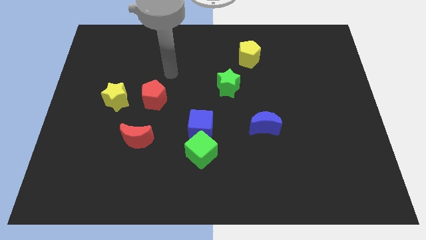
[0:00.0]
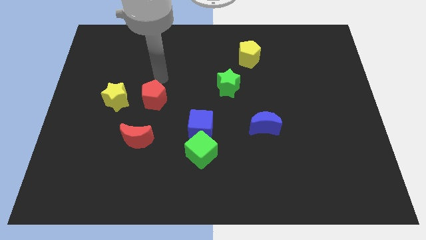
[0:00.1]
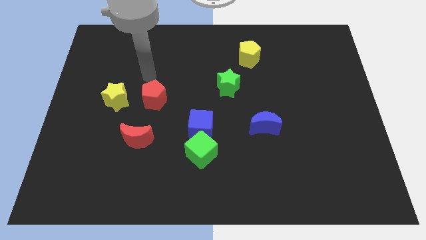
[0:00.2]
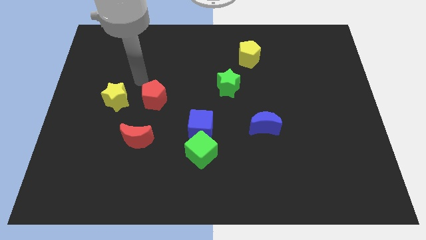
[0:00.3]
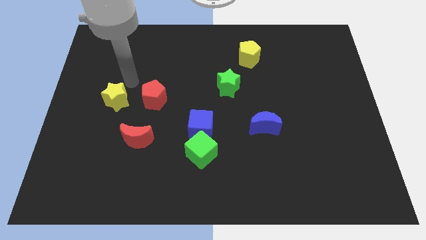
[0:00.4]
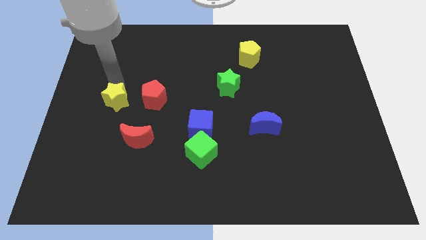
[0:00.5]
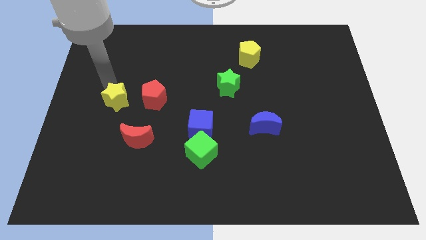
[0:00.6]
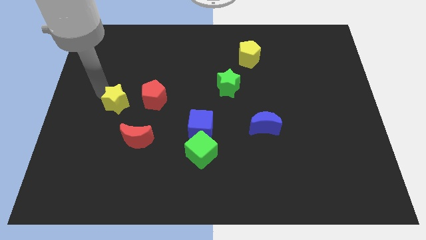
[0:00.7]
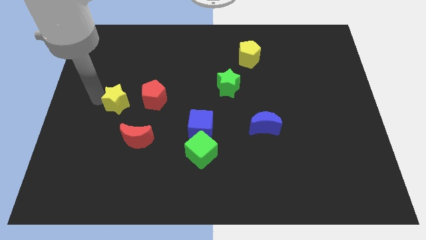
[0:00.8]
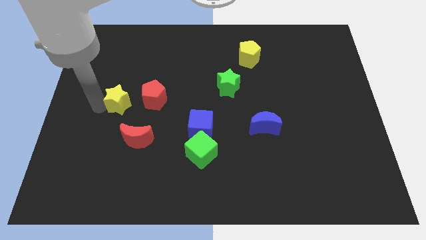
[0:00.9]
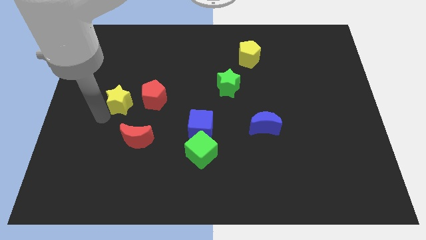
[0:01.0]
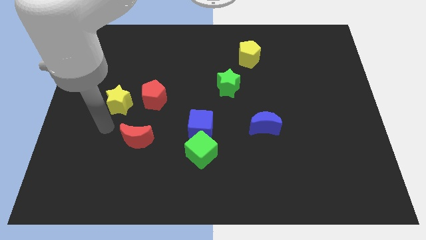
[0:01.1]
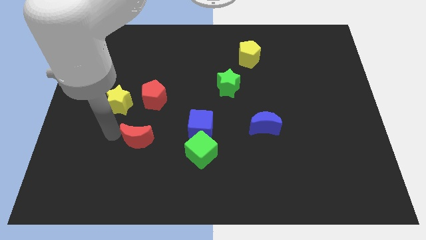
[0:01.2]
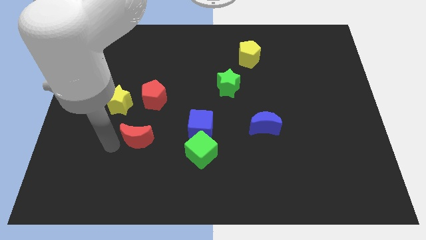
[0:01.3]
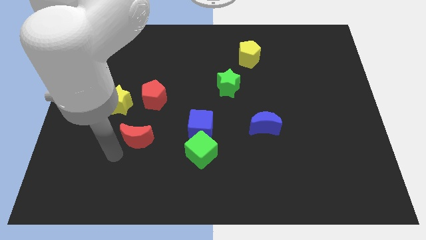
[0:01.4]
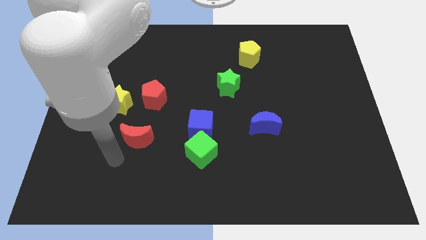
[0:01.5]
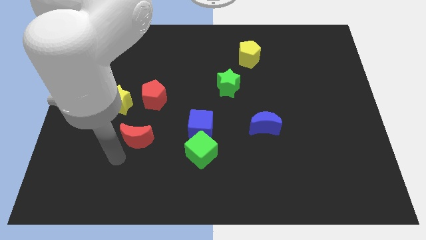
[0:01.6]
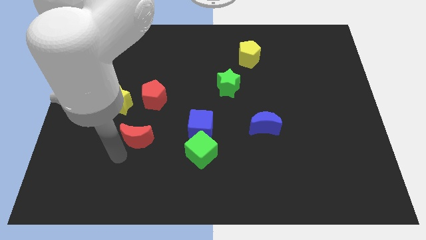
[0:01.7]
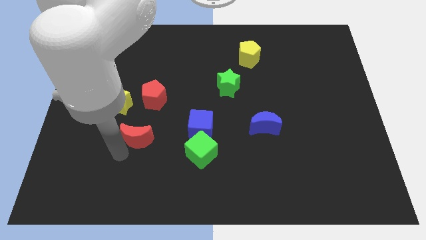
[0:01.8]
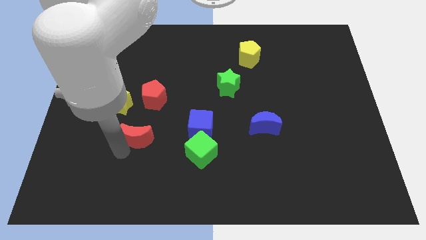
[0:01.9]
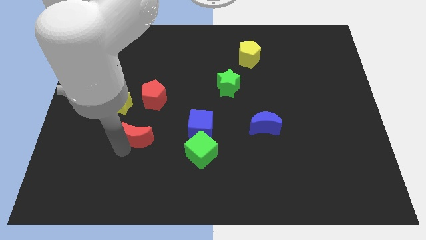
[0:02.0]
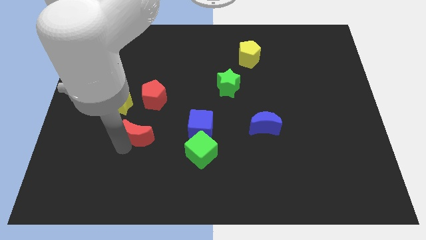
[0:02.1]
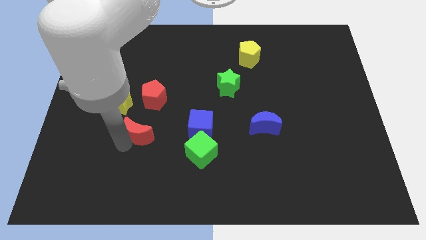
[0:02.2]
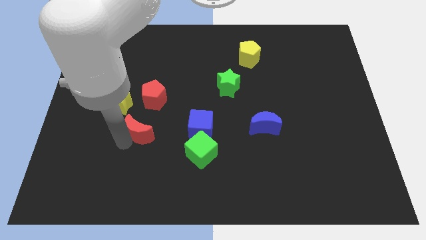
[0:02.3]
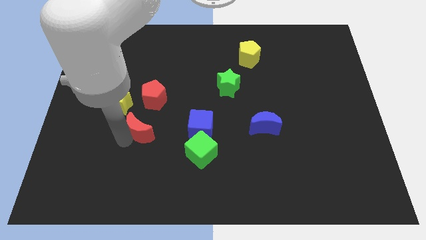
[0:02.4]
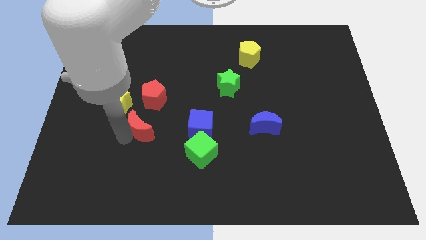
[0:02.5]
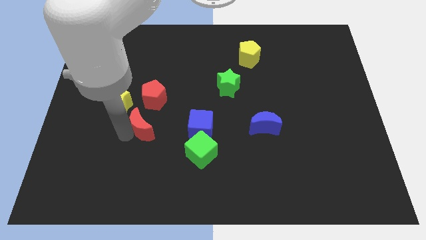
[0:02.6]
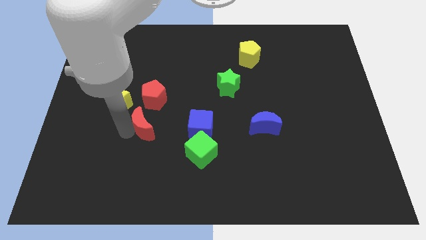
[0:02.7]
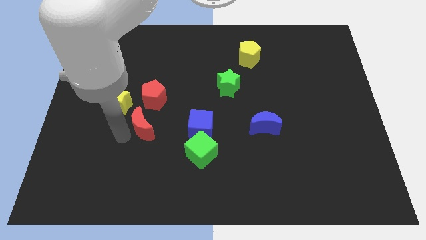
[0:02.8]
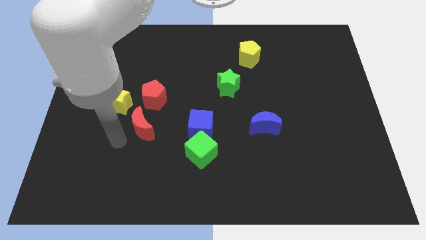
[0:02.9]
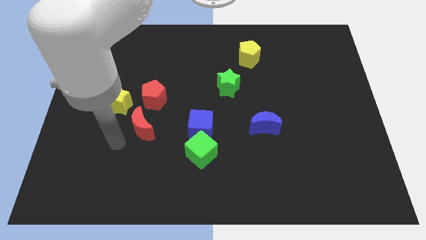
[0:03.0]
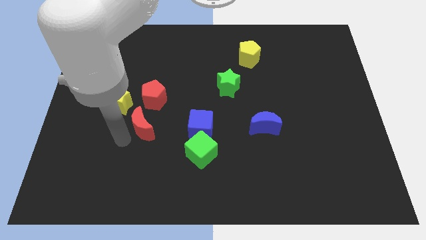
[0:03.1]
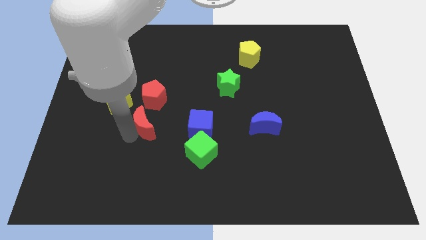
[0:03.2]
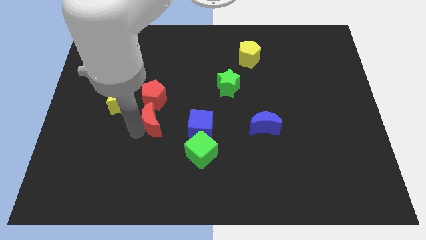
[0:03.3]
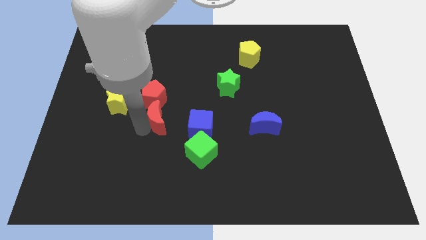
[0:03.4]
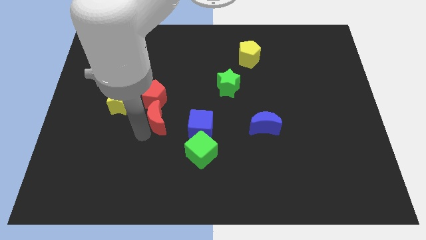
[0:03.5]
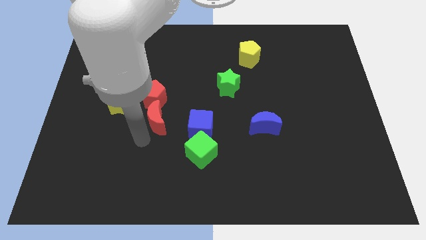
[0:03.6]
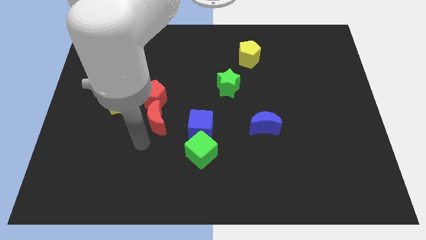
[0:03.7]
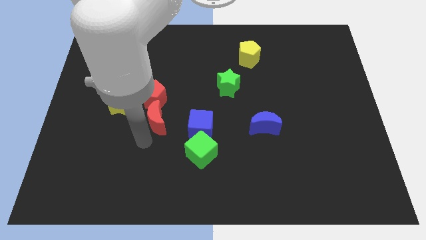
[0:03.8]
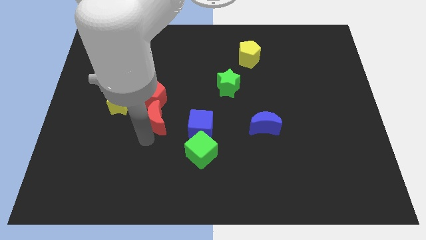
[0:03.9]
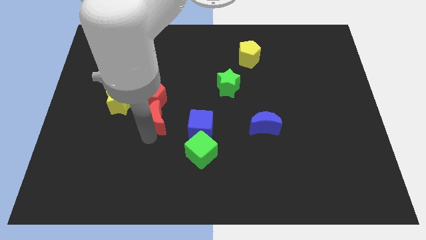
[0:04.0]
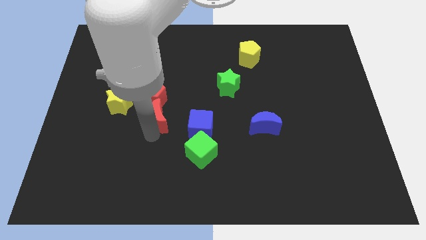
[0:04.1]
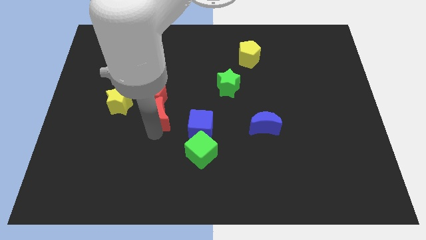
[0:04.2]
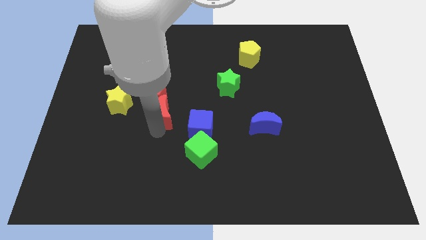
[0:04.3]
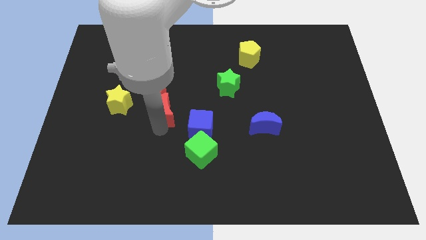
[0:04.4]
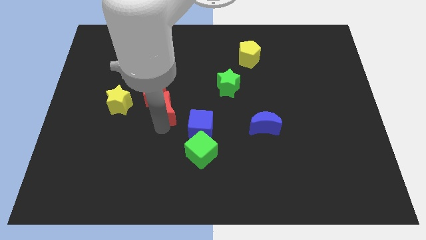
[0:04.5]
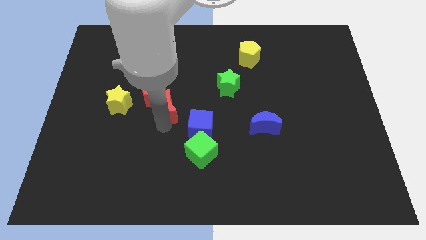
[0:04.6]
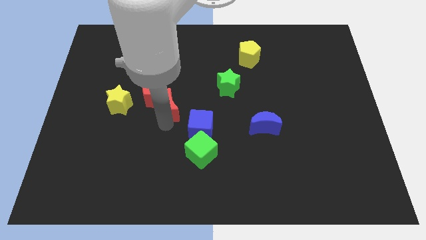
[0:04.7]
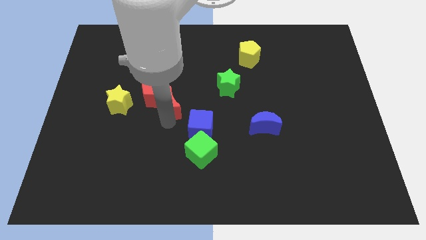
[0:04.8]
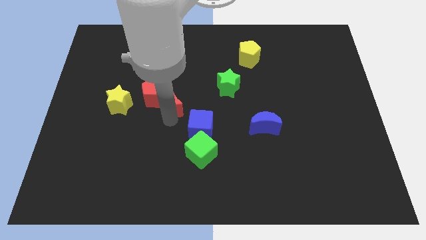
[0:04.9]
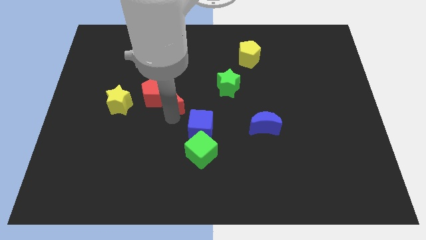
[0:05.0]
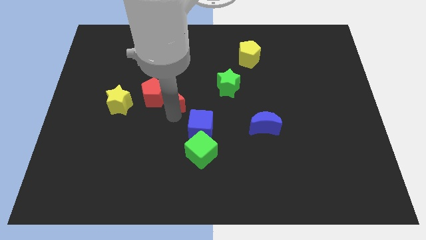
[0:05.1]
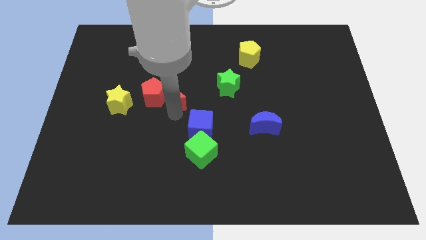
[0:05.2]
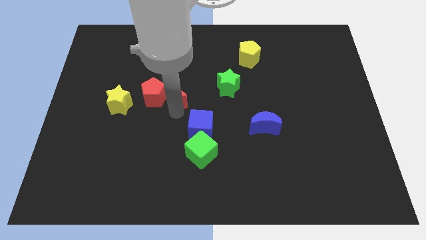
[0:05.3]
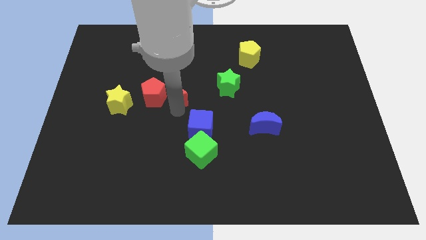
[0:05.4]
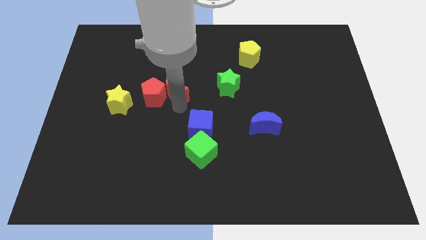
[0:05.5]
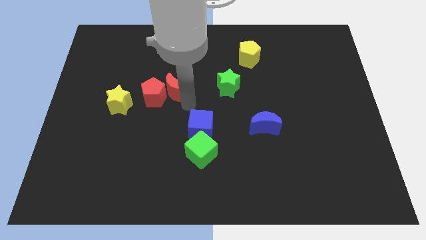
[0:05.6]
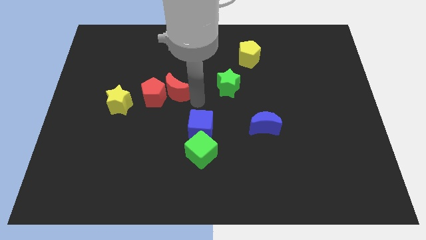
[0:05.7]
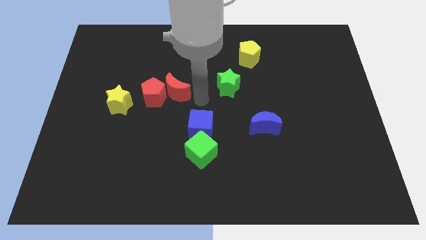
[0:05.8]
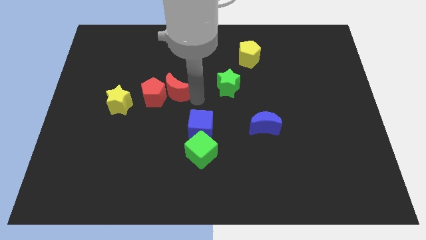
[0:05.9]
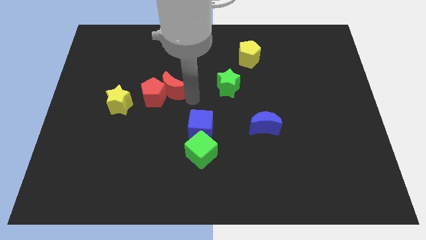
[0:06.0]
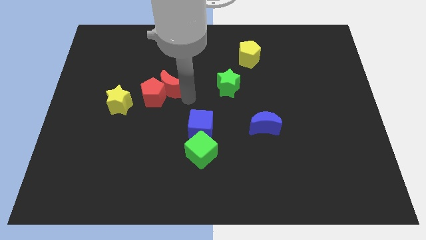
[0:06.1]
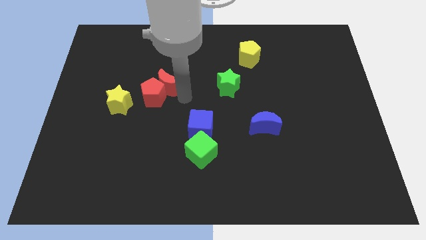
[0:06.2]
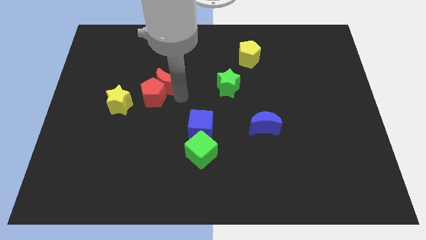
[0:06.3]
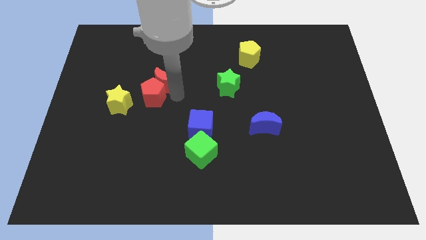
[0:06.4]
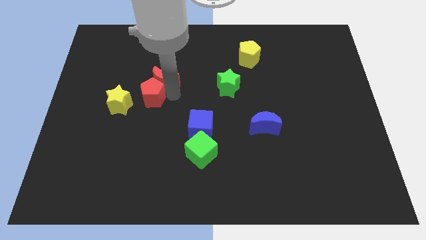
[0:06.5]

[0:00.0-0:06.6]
put the red moon to the top left of the red pentagon

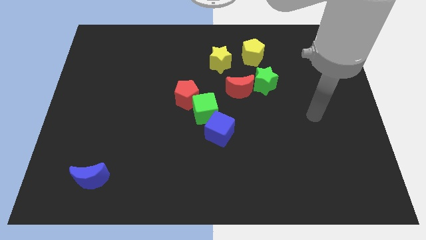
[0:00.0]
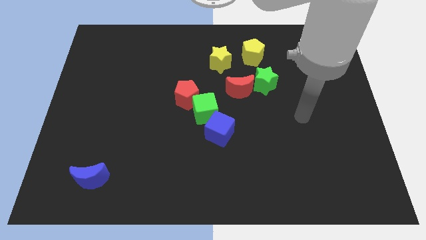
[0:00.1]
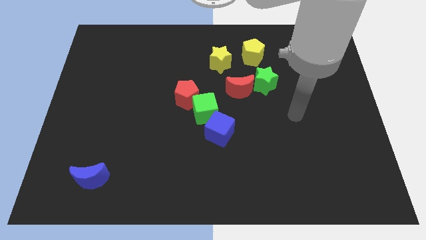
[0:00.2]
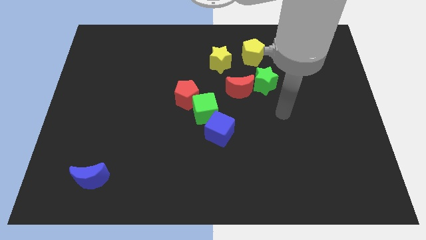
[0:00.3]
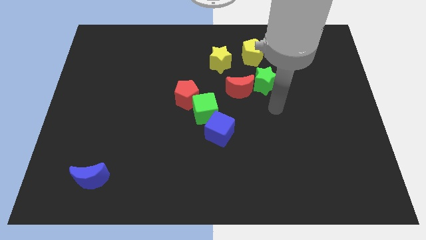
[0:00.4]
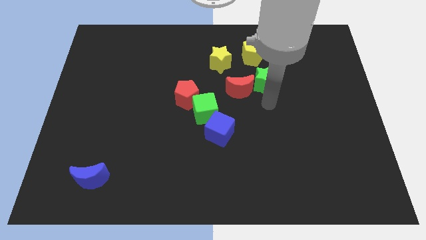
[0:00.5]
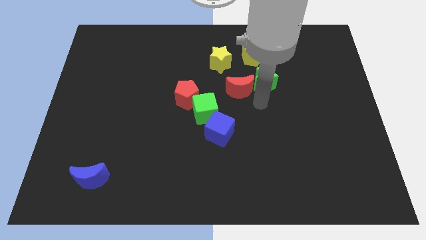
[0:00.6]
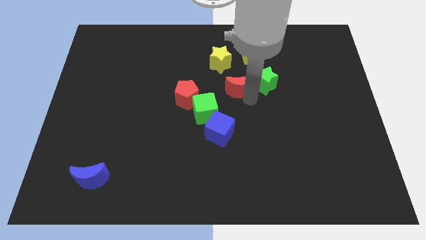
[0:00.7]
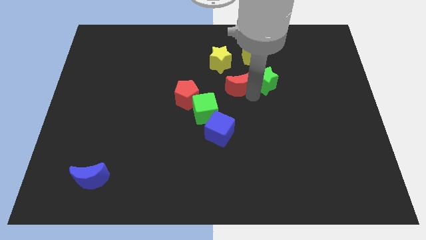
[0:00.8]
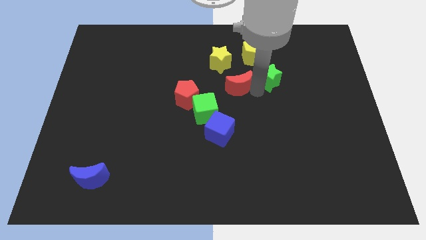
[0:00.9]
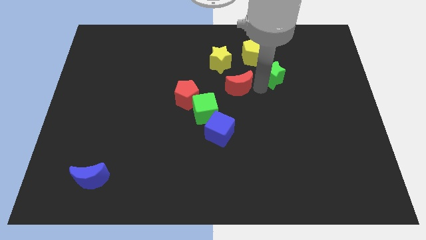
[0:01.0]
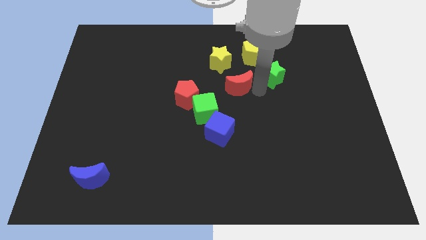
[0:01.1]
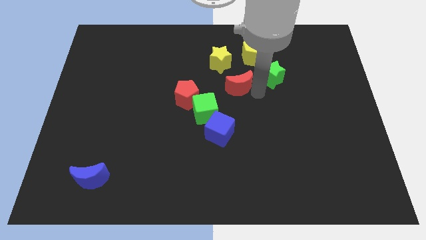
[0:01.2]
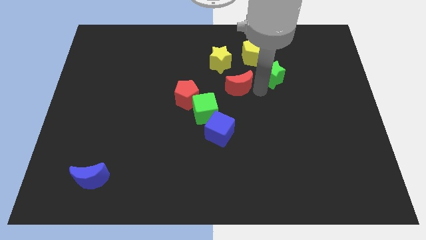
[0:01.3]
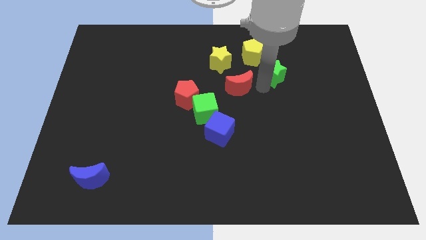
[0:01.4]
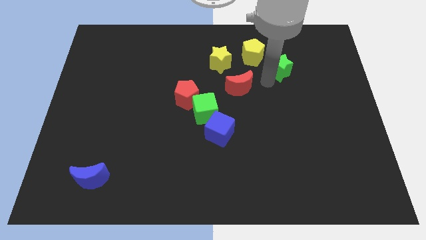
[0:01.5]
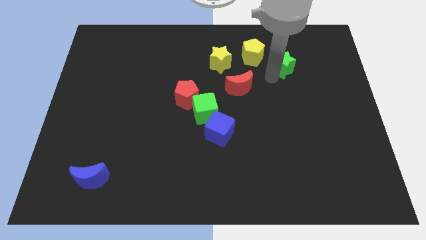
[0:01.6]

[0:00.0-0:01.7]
slide the green star to the right of the yellow pentagon
